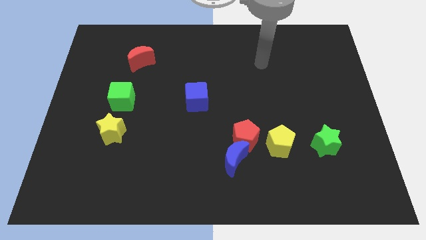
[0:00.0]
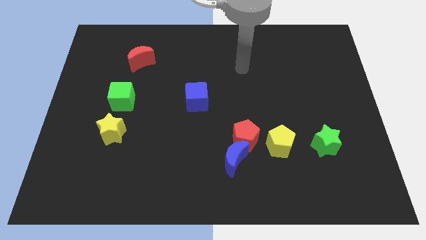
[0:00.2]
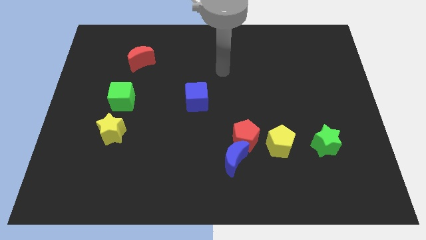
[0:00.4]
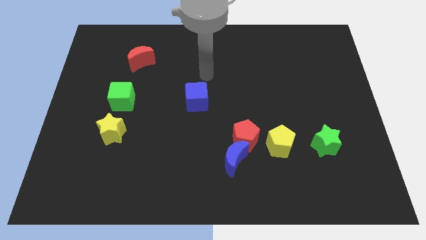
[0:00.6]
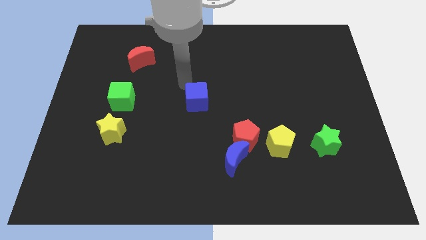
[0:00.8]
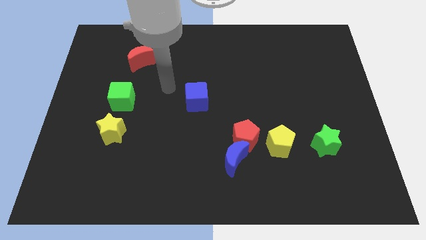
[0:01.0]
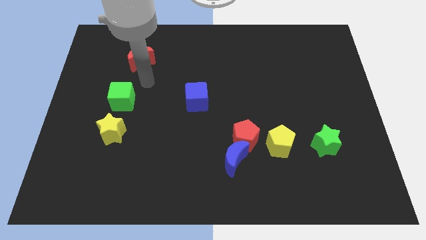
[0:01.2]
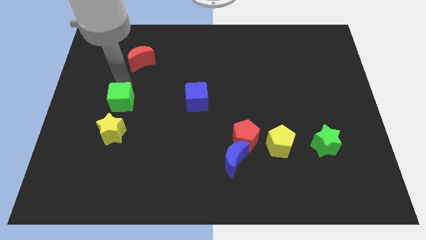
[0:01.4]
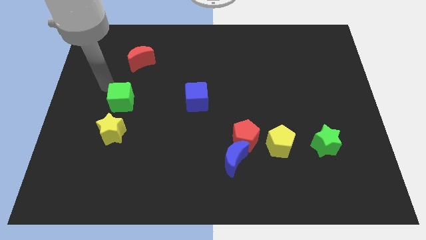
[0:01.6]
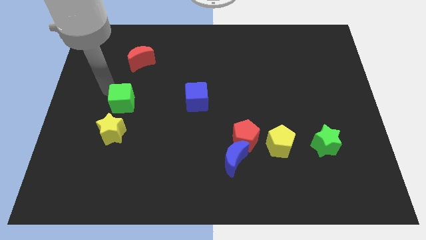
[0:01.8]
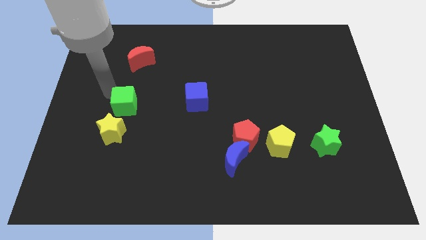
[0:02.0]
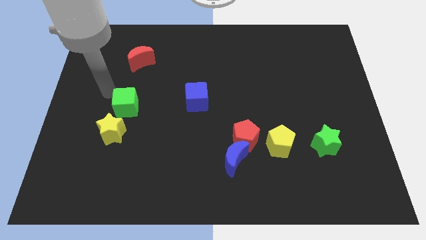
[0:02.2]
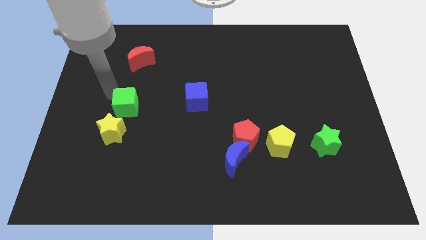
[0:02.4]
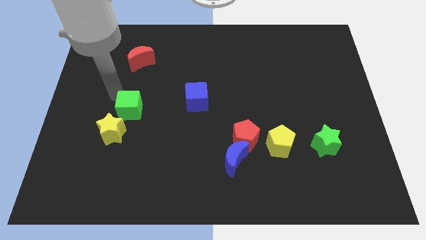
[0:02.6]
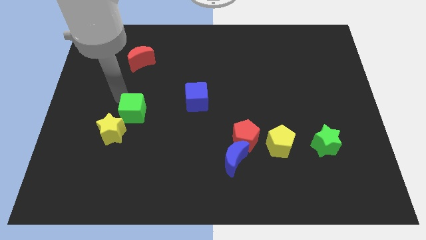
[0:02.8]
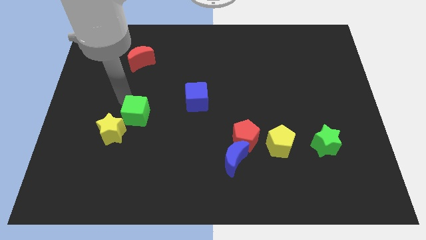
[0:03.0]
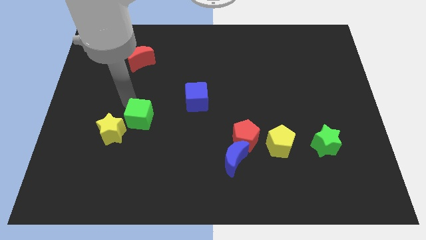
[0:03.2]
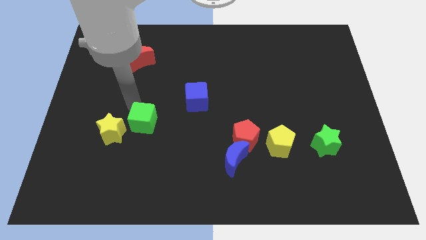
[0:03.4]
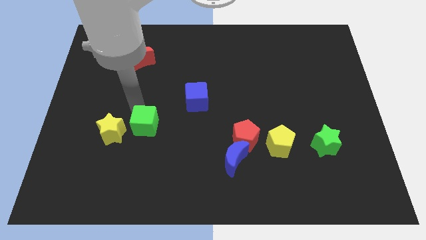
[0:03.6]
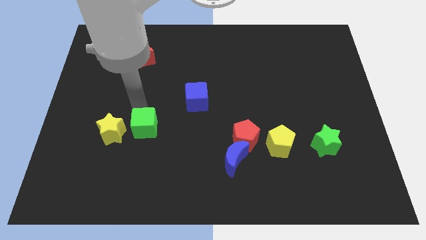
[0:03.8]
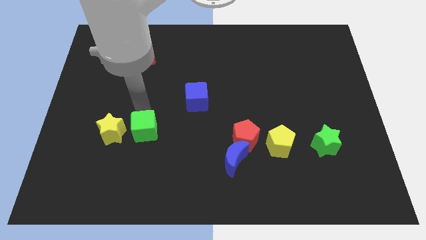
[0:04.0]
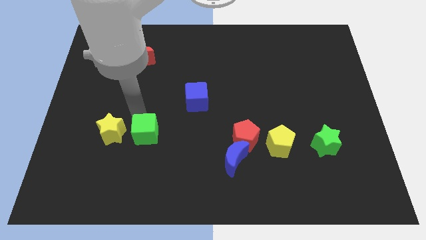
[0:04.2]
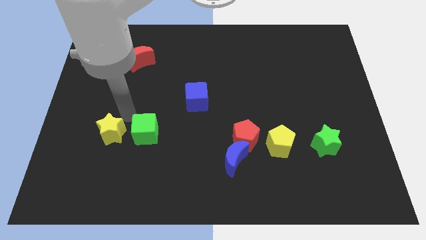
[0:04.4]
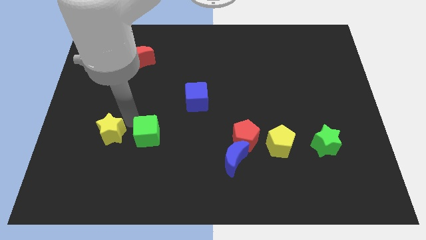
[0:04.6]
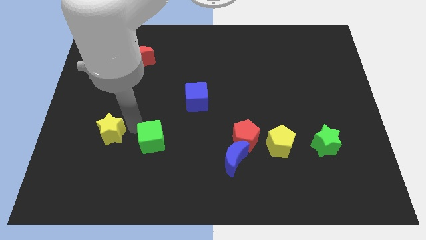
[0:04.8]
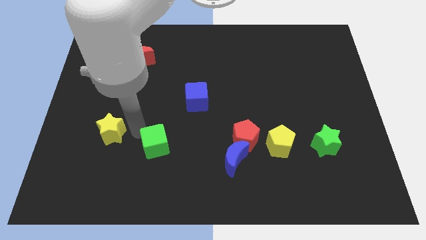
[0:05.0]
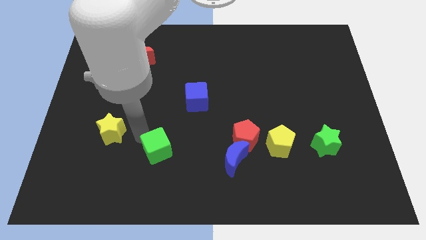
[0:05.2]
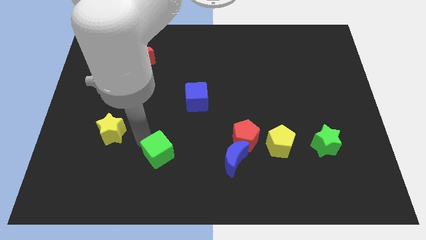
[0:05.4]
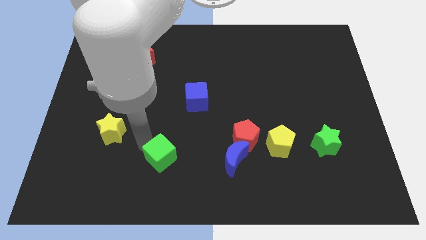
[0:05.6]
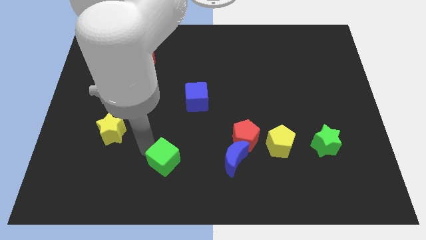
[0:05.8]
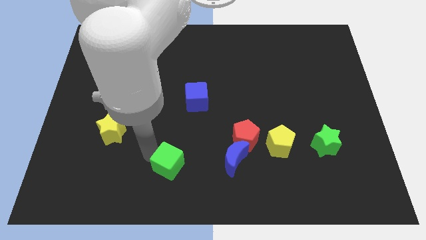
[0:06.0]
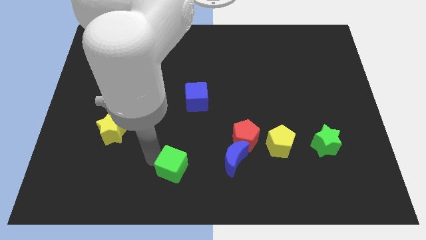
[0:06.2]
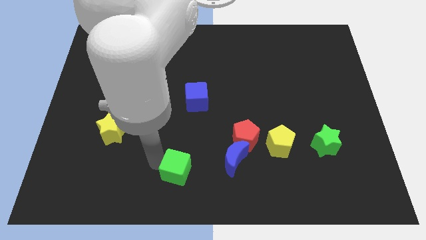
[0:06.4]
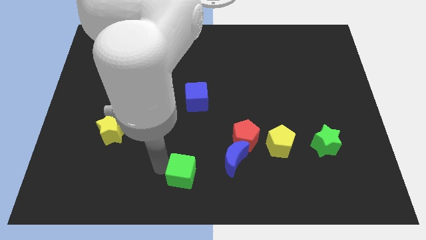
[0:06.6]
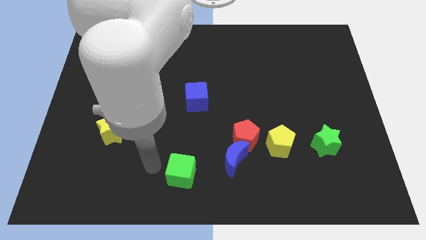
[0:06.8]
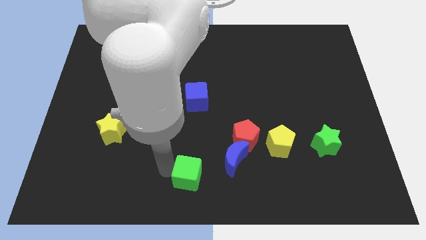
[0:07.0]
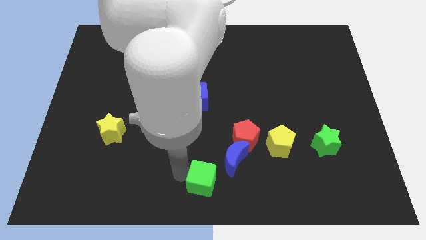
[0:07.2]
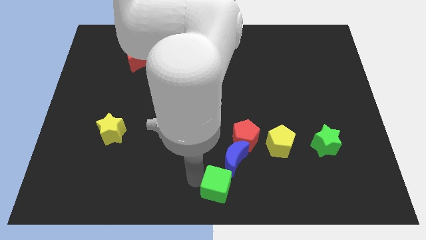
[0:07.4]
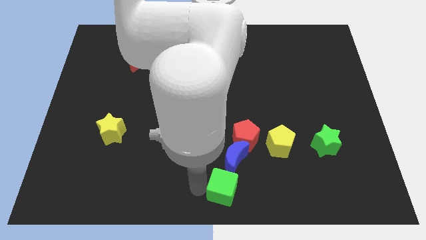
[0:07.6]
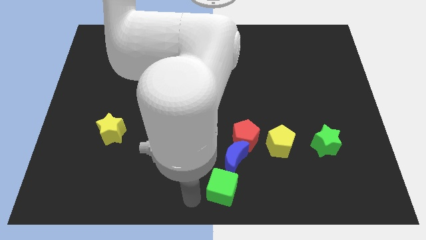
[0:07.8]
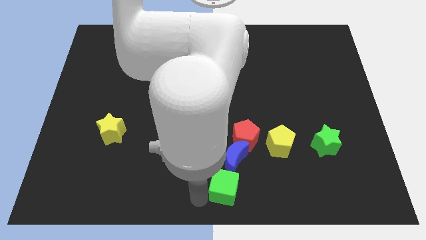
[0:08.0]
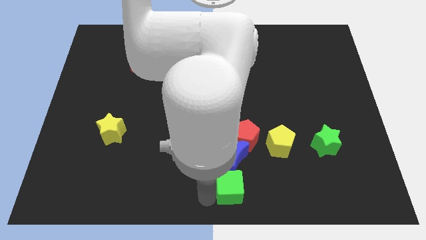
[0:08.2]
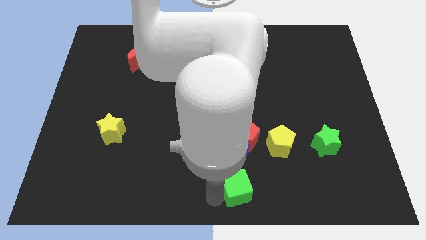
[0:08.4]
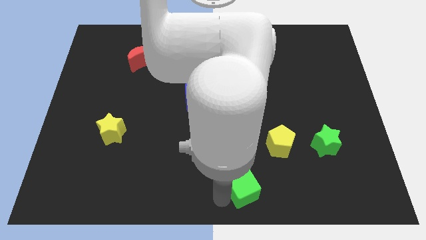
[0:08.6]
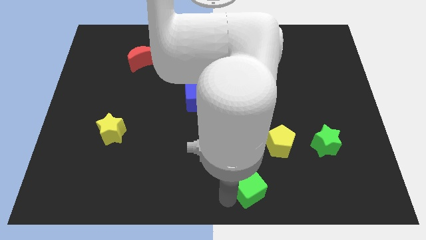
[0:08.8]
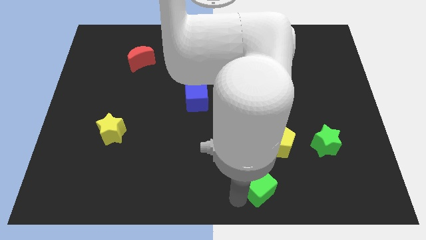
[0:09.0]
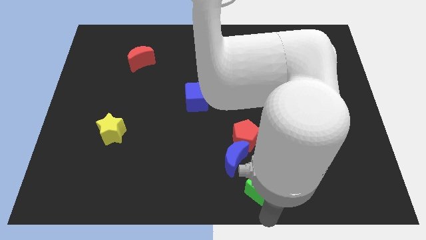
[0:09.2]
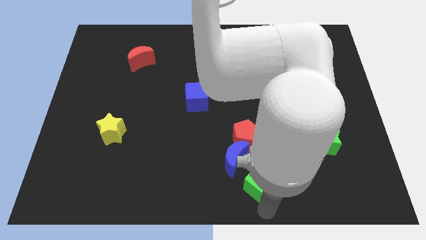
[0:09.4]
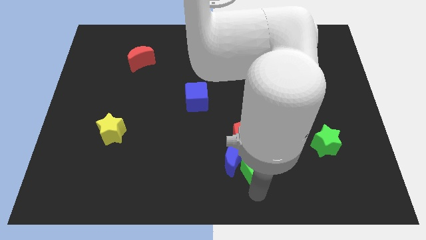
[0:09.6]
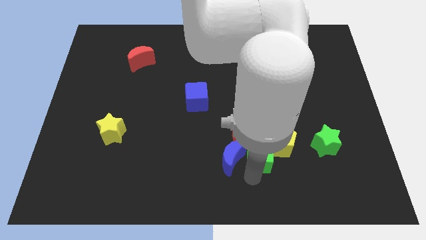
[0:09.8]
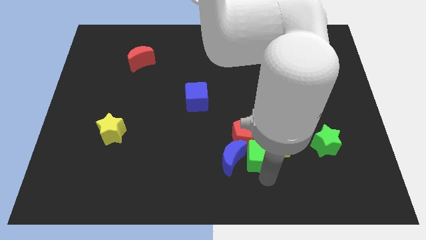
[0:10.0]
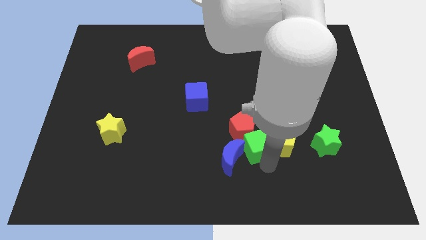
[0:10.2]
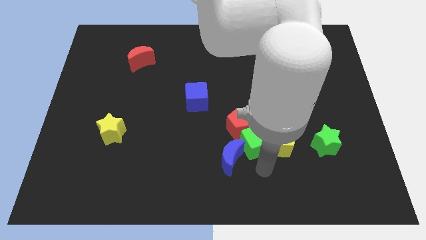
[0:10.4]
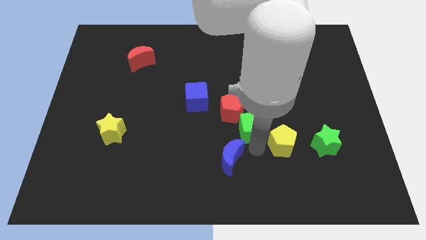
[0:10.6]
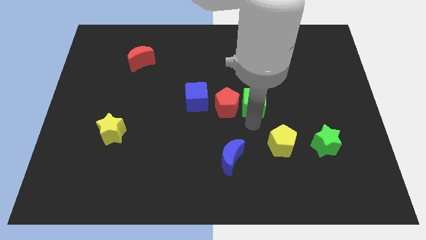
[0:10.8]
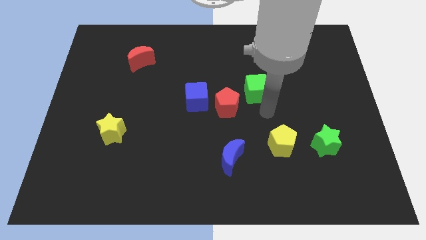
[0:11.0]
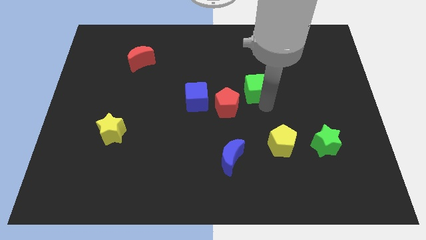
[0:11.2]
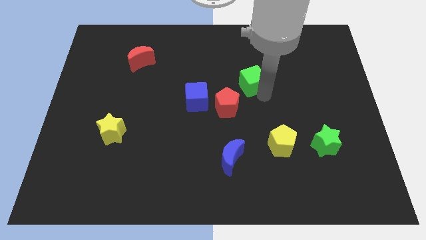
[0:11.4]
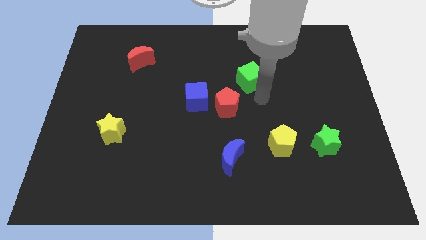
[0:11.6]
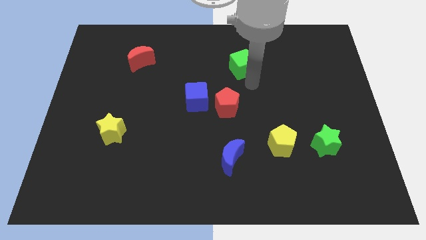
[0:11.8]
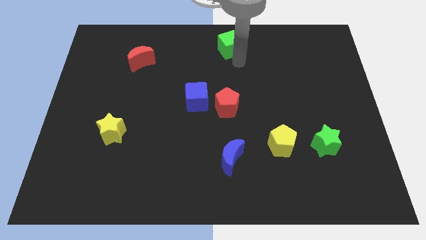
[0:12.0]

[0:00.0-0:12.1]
slide the green cube to the top side

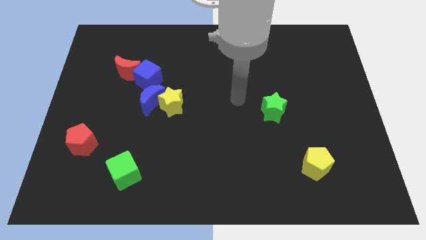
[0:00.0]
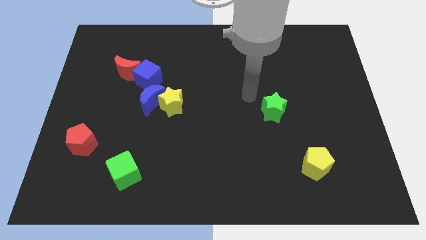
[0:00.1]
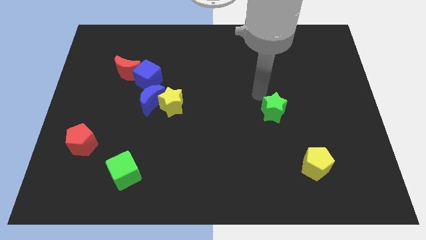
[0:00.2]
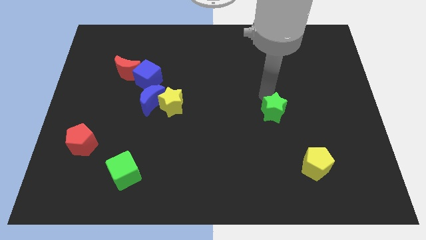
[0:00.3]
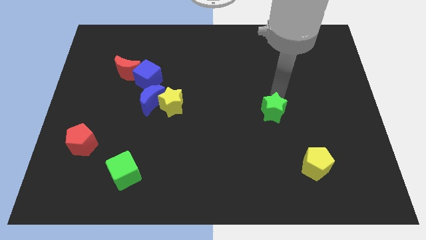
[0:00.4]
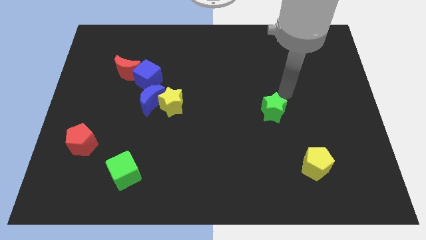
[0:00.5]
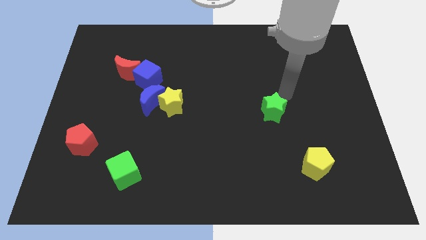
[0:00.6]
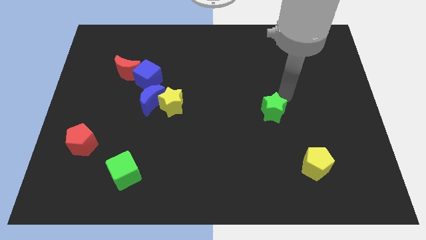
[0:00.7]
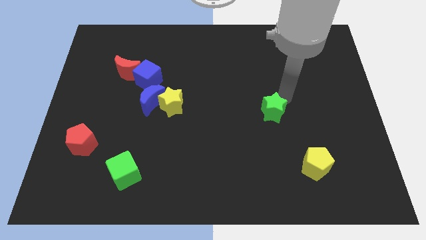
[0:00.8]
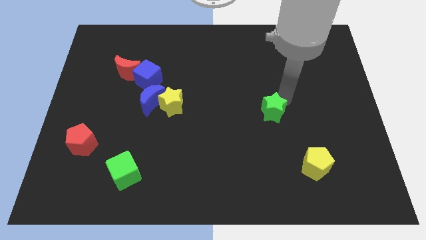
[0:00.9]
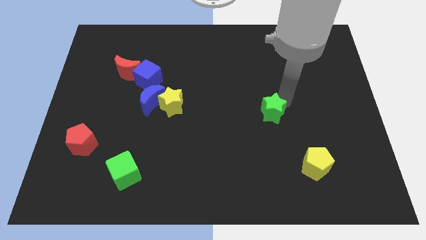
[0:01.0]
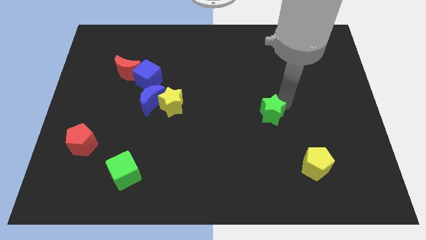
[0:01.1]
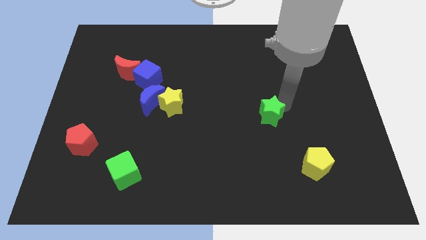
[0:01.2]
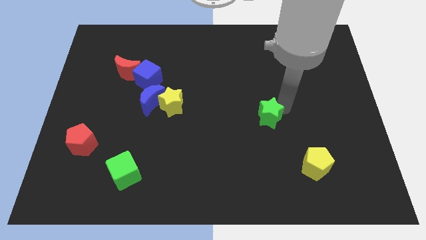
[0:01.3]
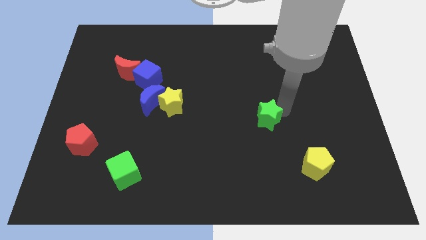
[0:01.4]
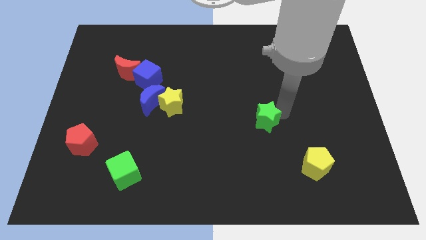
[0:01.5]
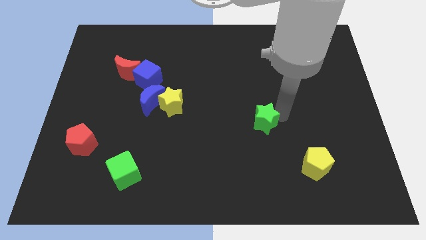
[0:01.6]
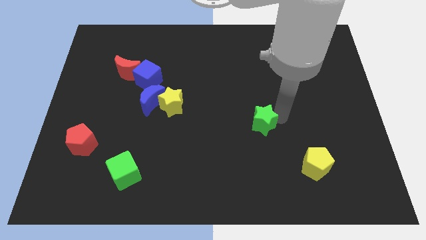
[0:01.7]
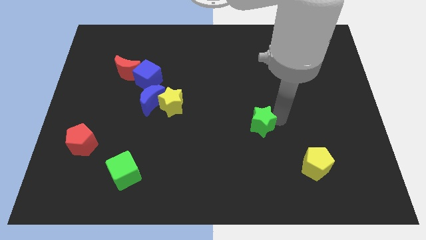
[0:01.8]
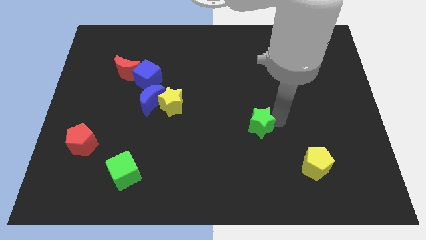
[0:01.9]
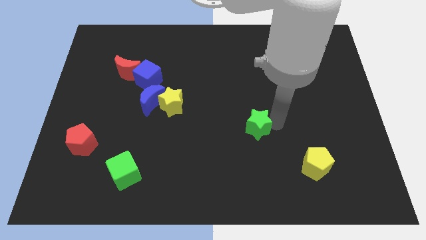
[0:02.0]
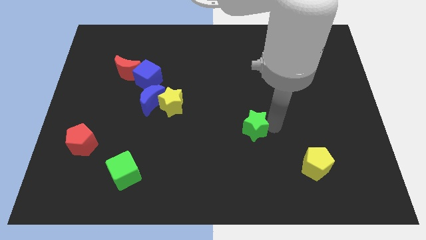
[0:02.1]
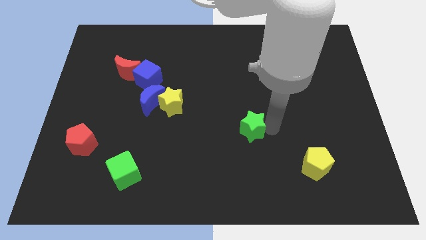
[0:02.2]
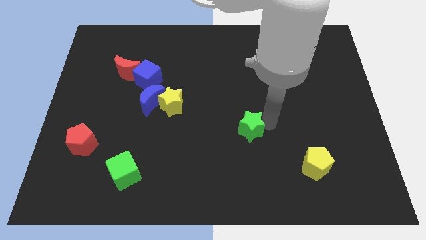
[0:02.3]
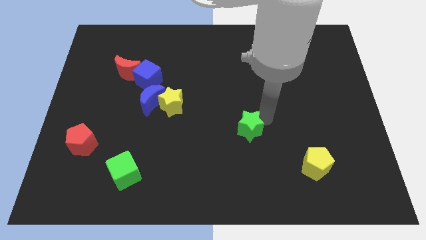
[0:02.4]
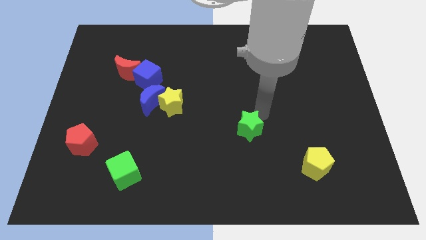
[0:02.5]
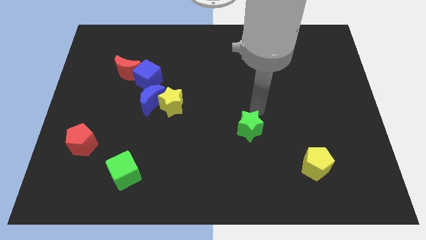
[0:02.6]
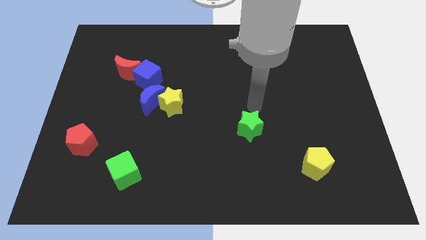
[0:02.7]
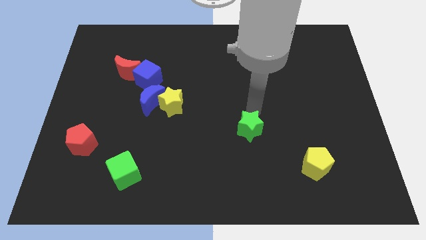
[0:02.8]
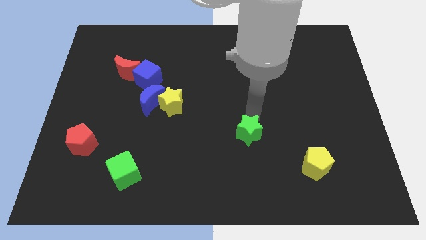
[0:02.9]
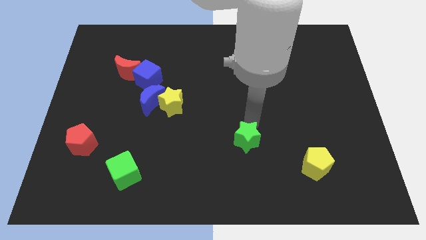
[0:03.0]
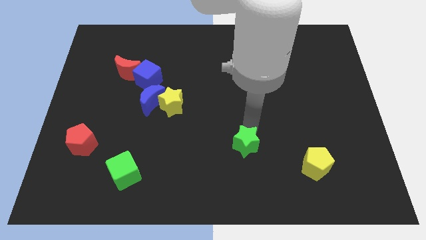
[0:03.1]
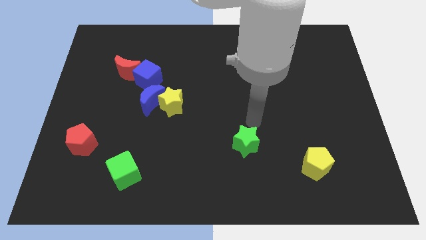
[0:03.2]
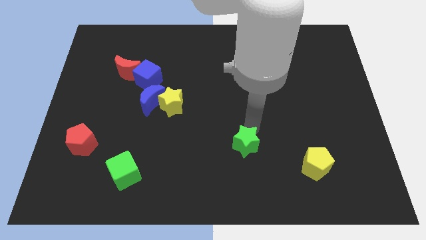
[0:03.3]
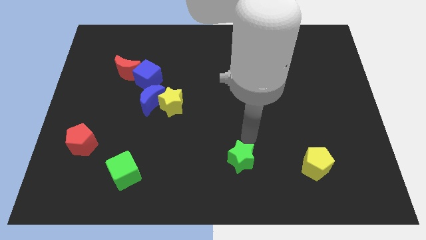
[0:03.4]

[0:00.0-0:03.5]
put the green star to the bottom side
